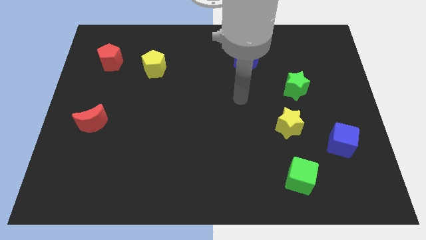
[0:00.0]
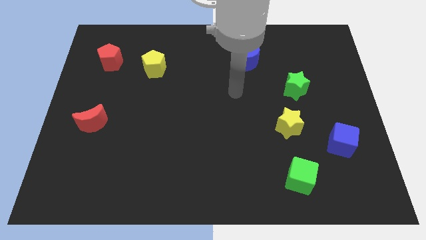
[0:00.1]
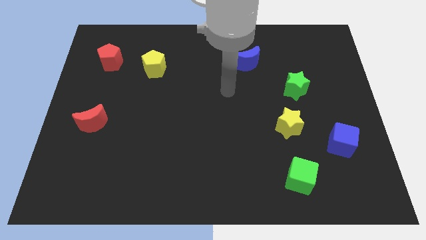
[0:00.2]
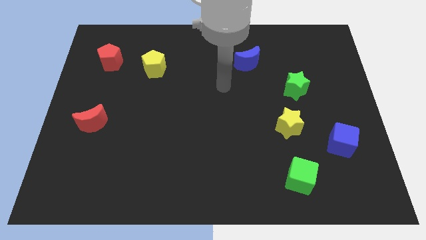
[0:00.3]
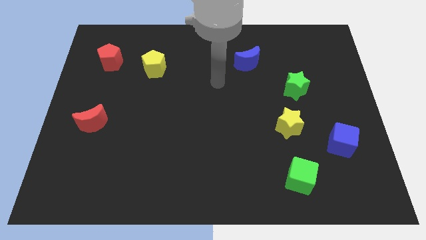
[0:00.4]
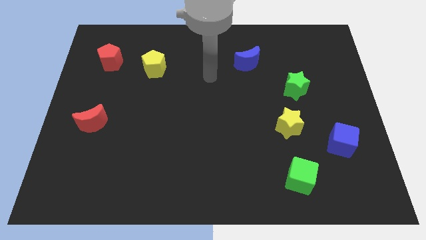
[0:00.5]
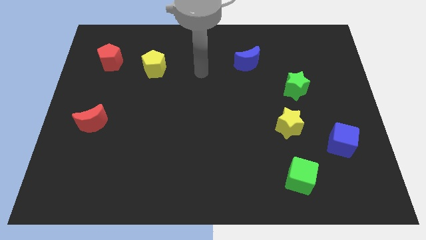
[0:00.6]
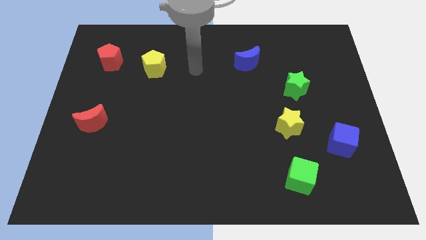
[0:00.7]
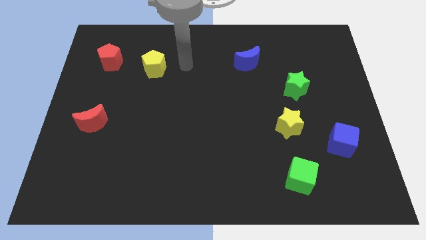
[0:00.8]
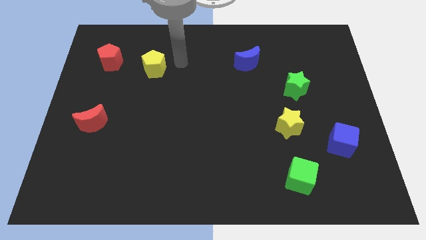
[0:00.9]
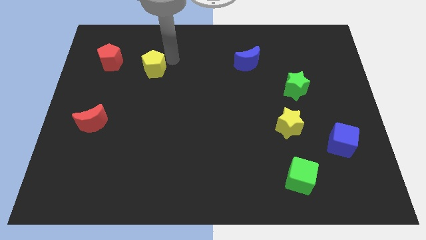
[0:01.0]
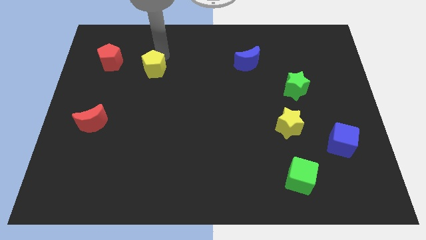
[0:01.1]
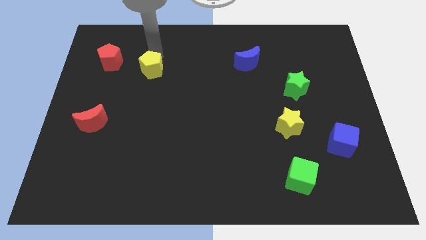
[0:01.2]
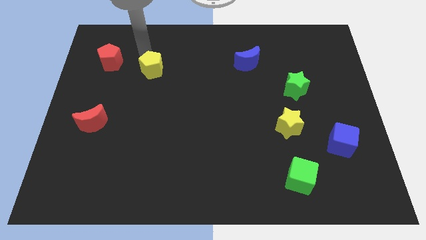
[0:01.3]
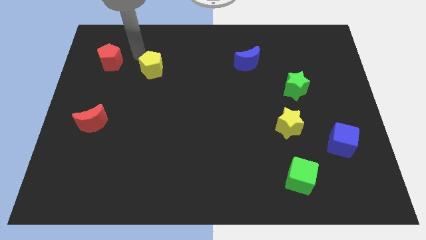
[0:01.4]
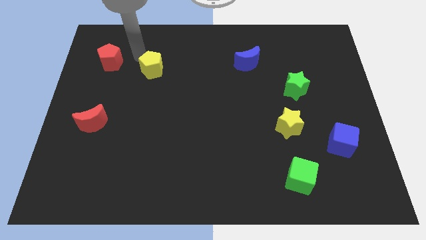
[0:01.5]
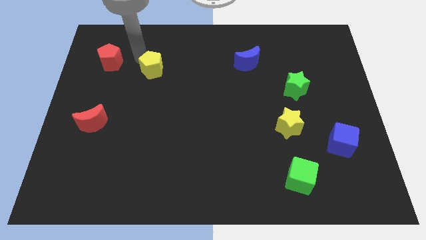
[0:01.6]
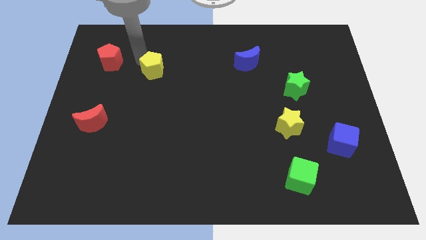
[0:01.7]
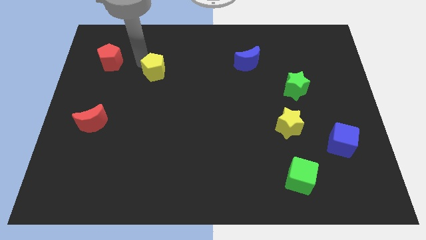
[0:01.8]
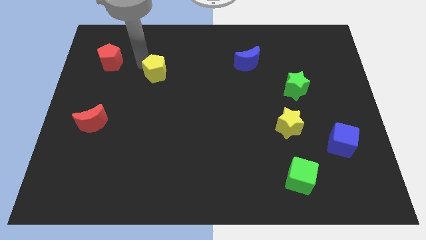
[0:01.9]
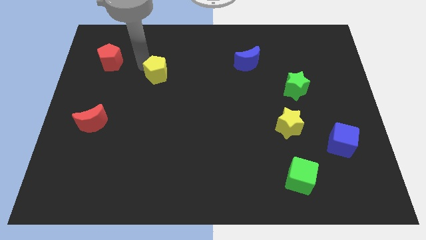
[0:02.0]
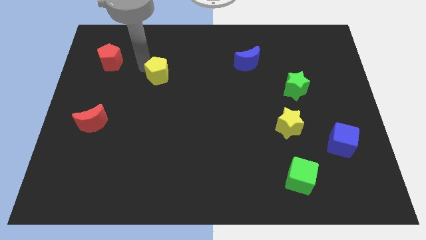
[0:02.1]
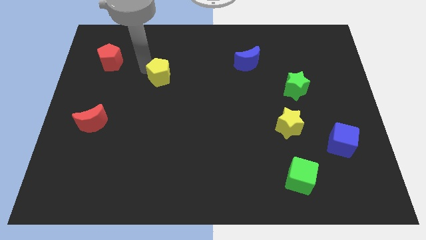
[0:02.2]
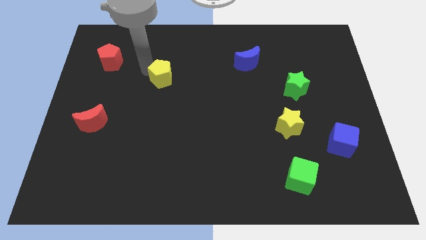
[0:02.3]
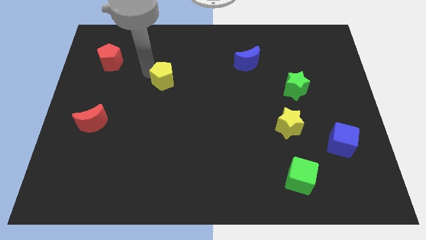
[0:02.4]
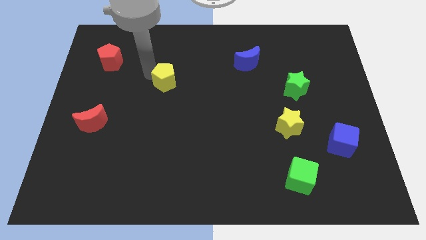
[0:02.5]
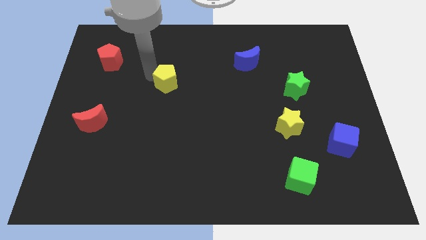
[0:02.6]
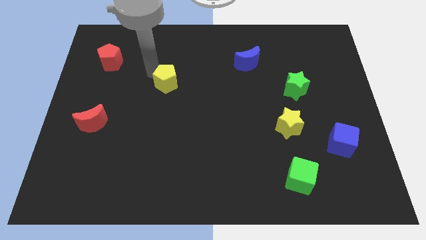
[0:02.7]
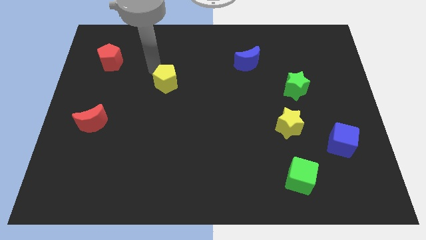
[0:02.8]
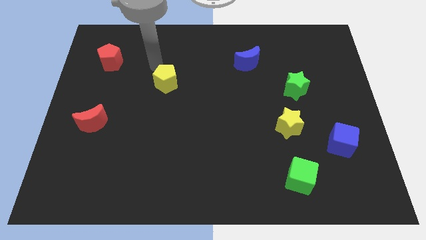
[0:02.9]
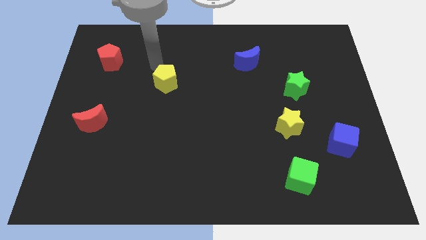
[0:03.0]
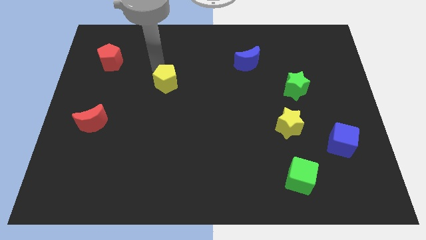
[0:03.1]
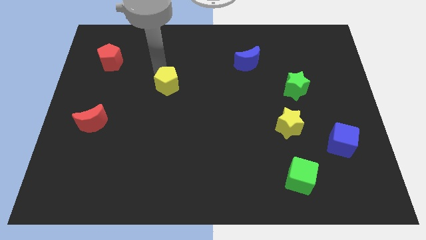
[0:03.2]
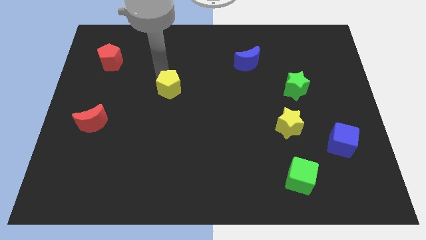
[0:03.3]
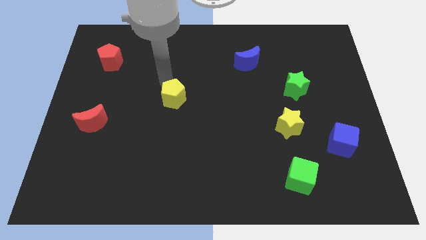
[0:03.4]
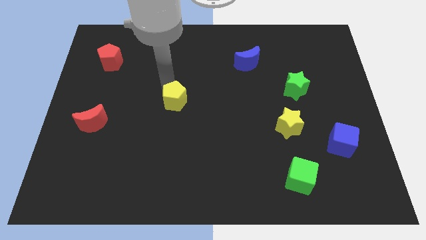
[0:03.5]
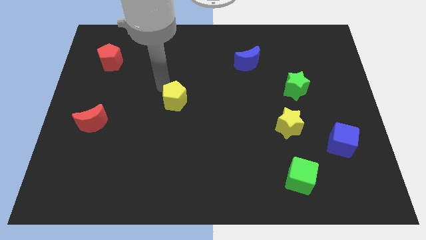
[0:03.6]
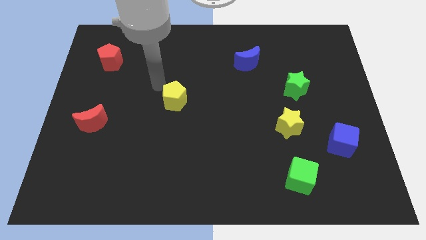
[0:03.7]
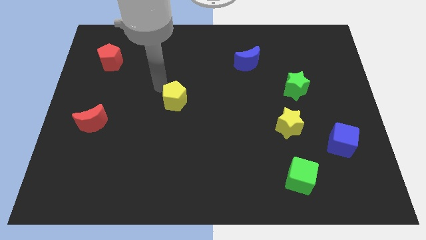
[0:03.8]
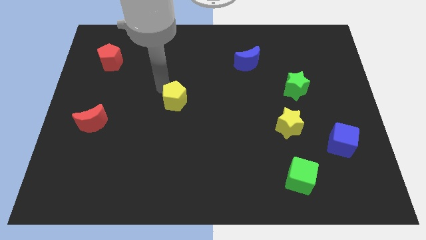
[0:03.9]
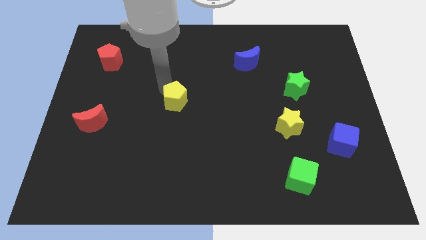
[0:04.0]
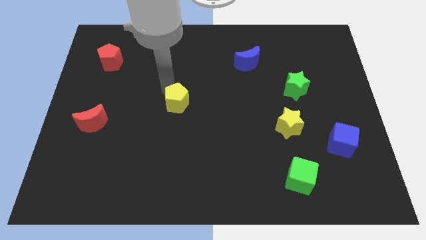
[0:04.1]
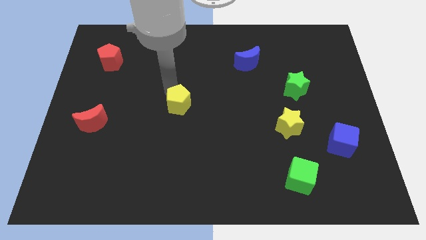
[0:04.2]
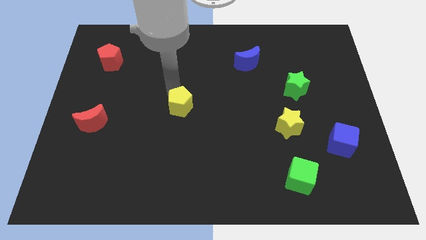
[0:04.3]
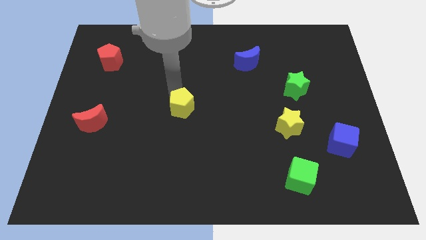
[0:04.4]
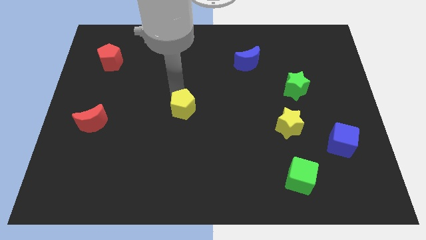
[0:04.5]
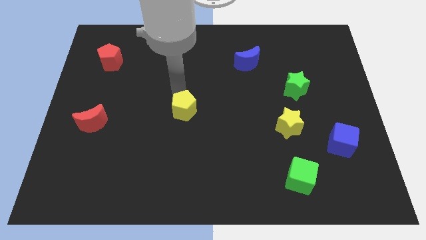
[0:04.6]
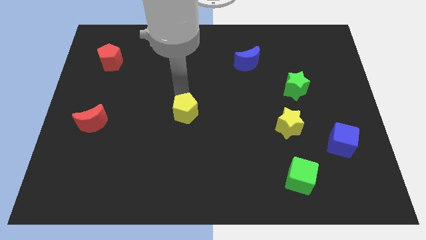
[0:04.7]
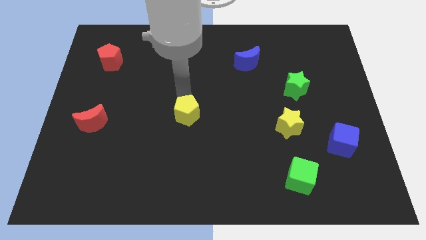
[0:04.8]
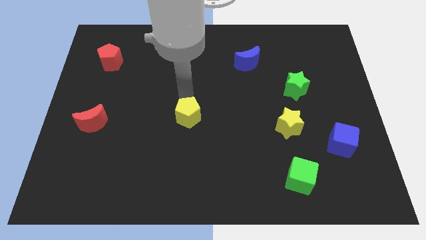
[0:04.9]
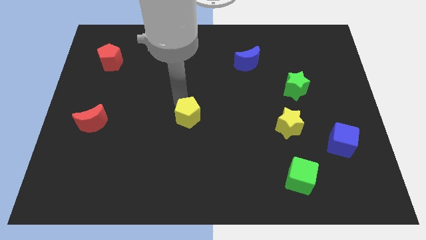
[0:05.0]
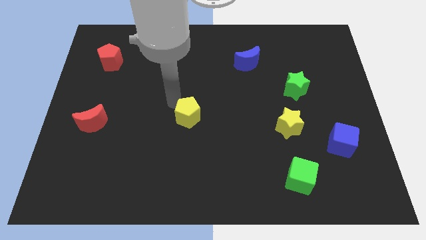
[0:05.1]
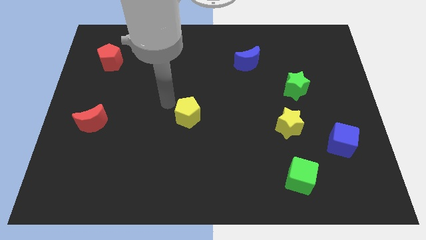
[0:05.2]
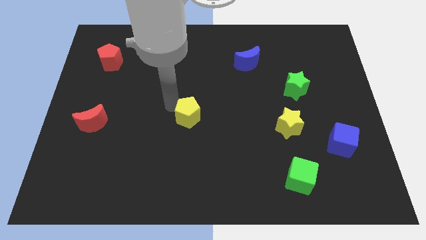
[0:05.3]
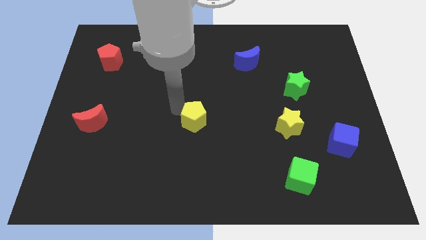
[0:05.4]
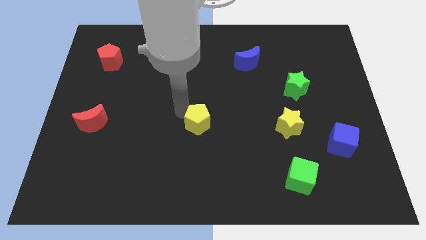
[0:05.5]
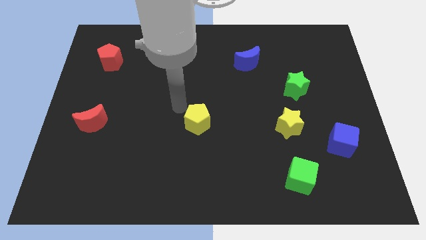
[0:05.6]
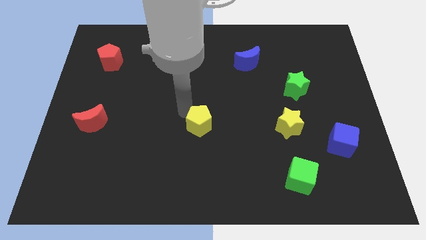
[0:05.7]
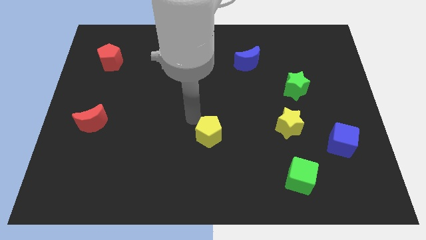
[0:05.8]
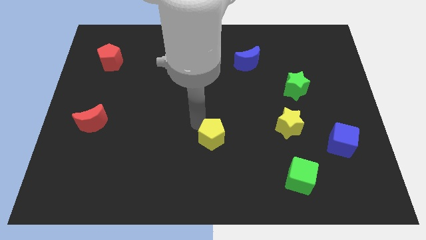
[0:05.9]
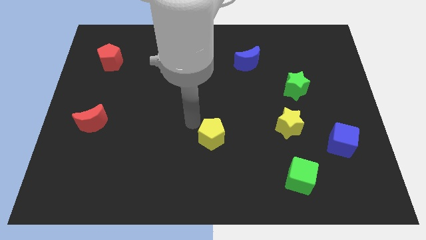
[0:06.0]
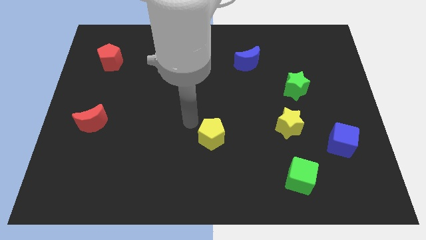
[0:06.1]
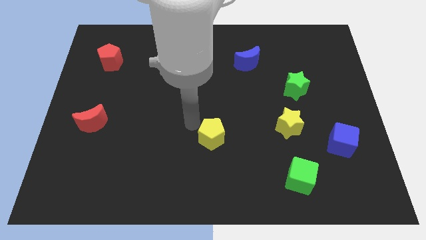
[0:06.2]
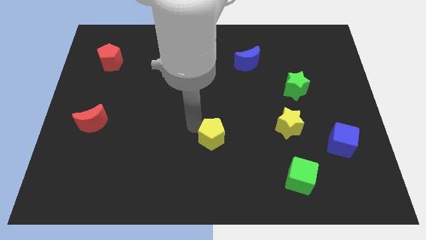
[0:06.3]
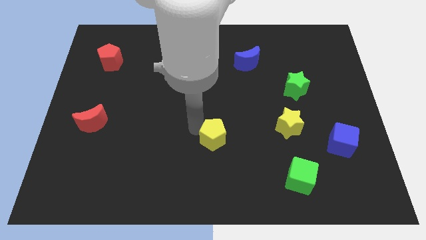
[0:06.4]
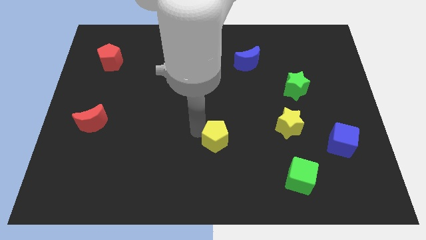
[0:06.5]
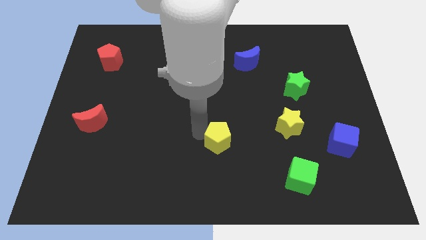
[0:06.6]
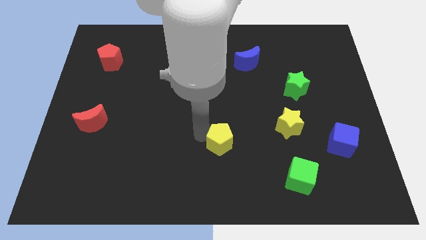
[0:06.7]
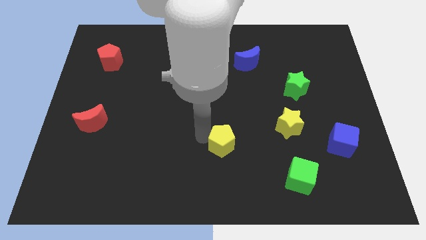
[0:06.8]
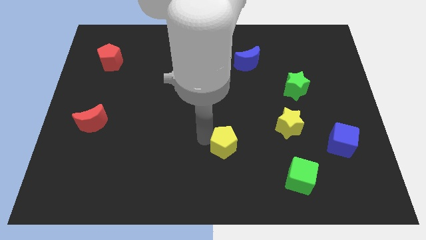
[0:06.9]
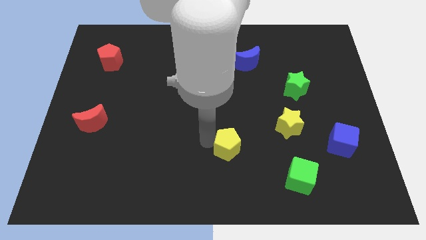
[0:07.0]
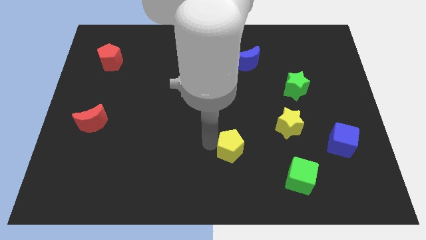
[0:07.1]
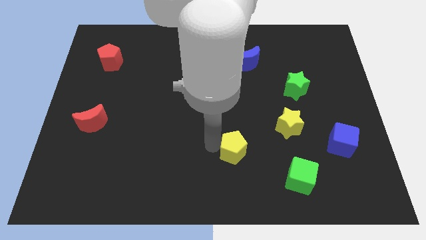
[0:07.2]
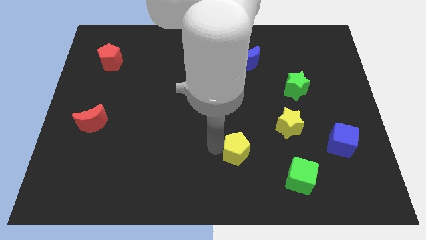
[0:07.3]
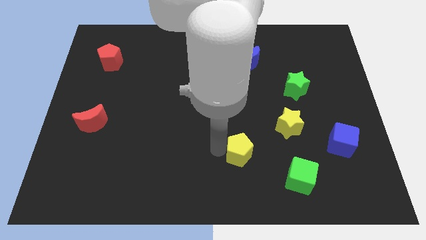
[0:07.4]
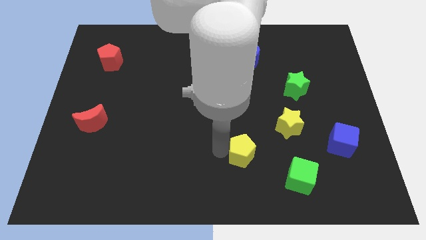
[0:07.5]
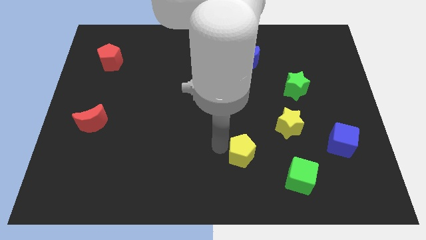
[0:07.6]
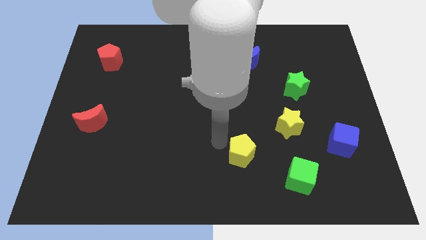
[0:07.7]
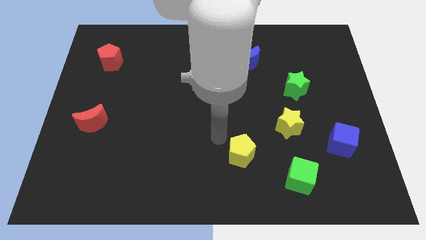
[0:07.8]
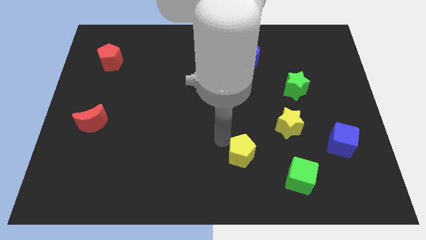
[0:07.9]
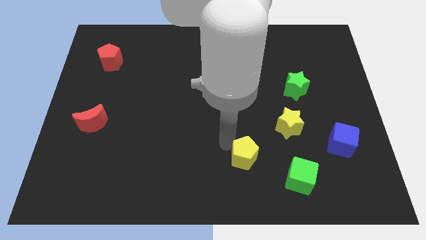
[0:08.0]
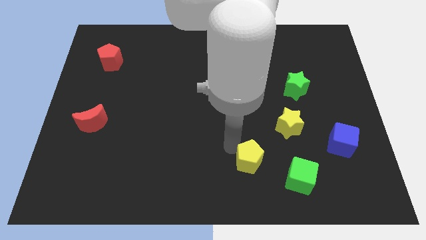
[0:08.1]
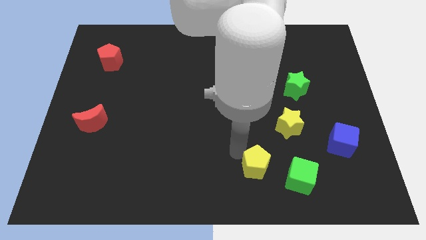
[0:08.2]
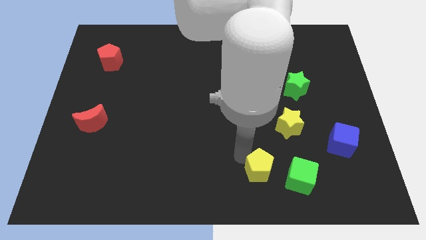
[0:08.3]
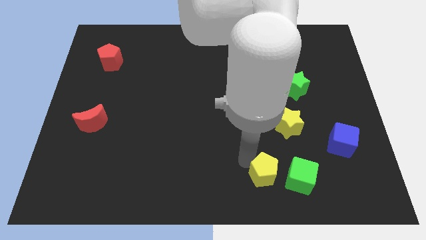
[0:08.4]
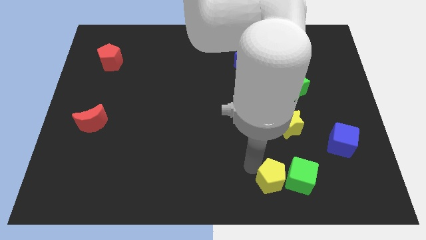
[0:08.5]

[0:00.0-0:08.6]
slide the yellow pentagon close to the green cube
